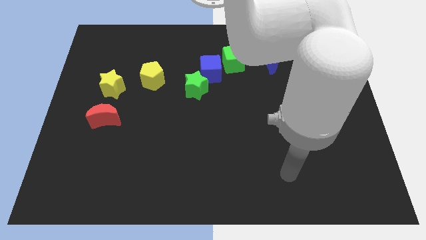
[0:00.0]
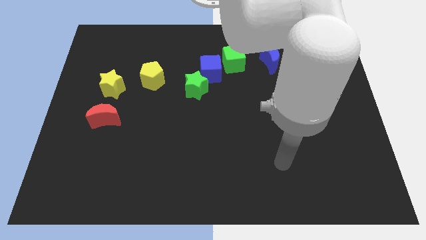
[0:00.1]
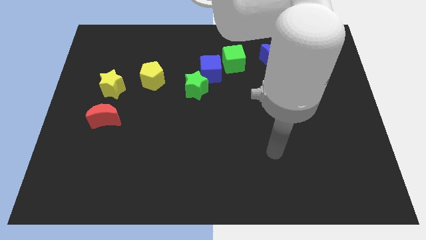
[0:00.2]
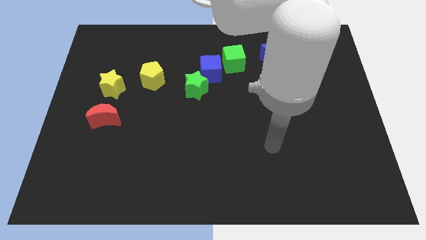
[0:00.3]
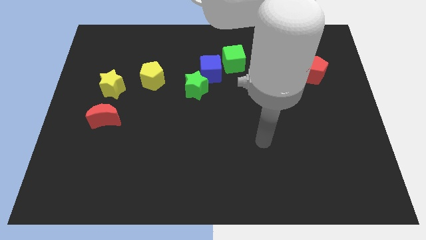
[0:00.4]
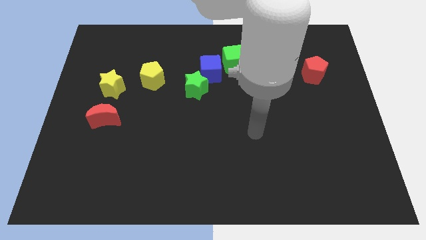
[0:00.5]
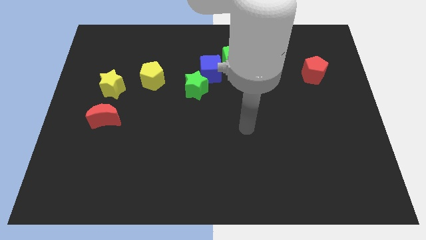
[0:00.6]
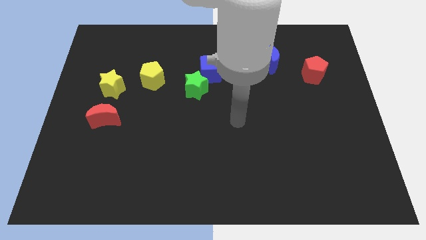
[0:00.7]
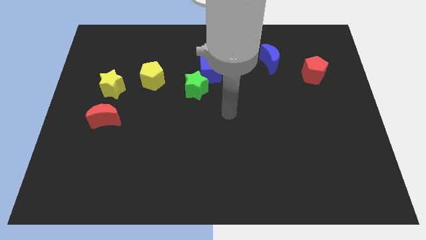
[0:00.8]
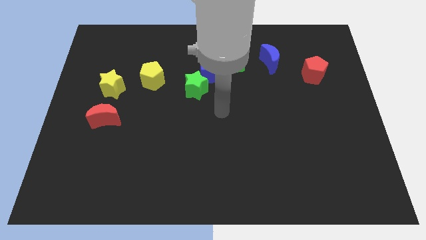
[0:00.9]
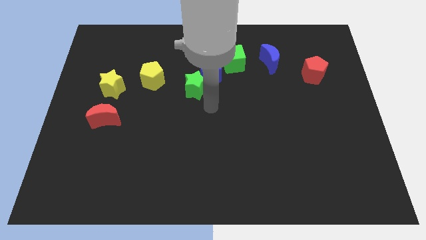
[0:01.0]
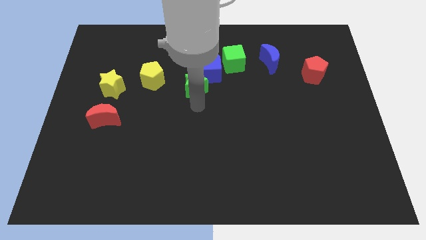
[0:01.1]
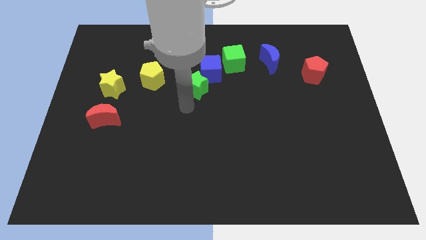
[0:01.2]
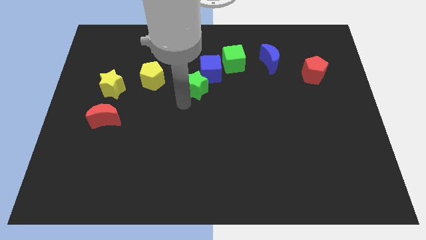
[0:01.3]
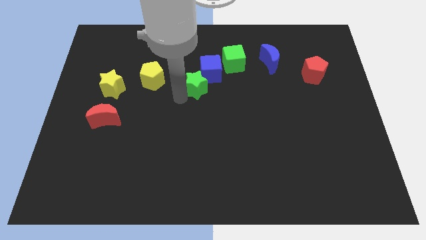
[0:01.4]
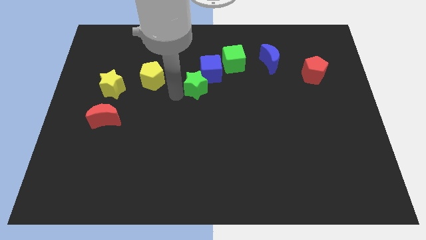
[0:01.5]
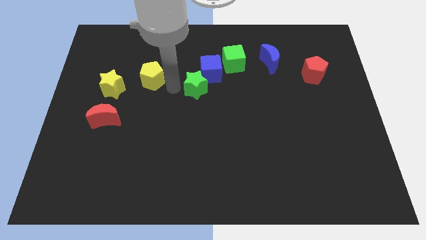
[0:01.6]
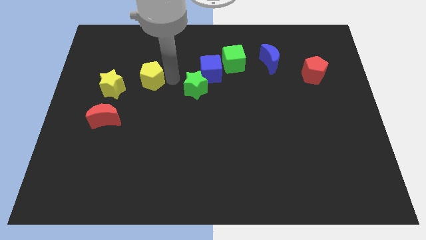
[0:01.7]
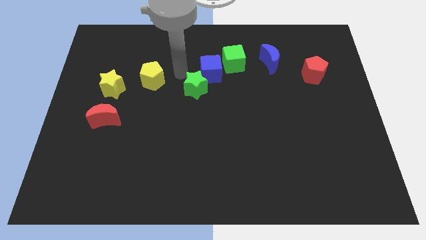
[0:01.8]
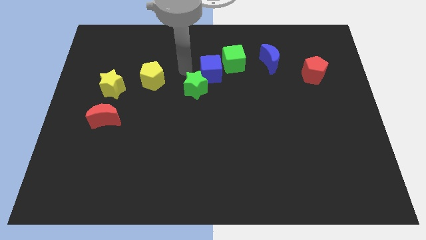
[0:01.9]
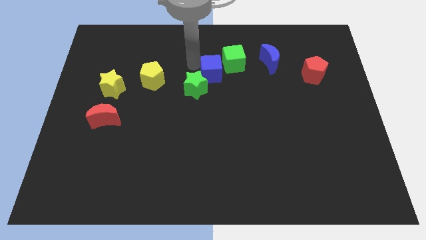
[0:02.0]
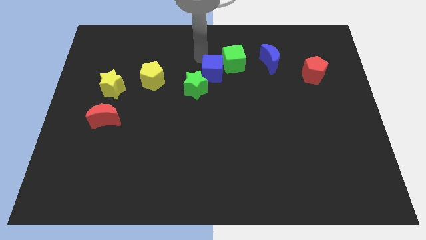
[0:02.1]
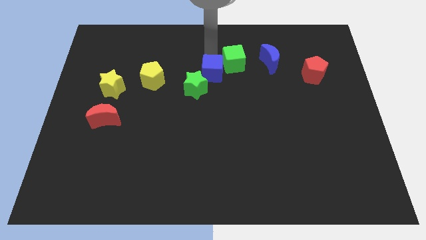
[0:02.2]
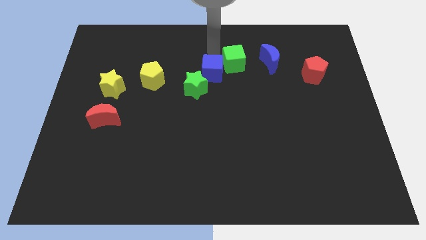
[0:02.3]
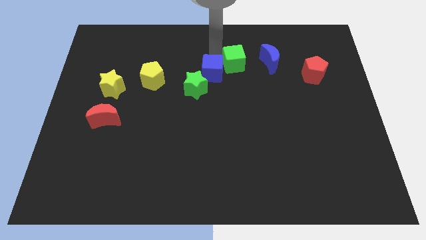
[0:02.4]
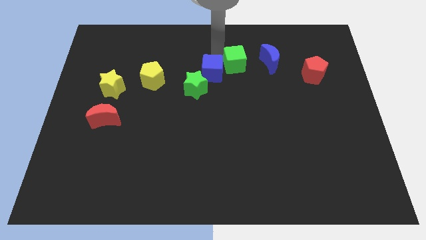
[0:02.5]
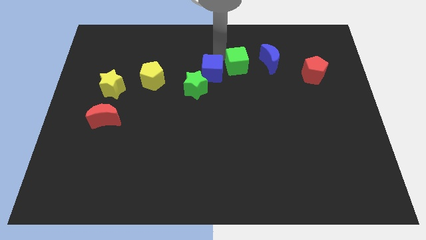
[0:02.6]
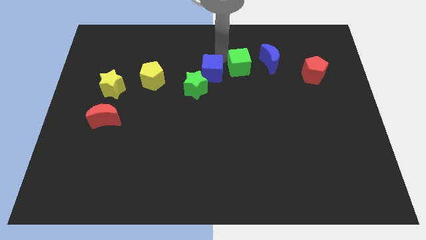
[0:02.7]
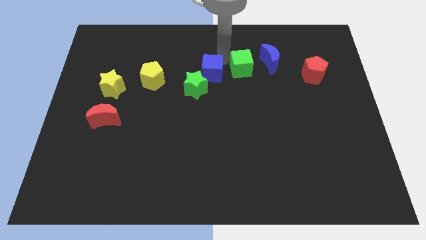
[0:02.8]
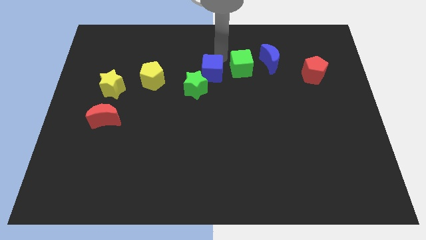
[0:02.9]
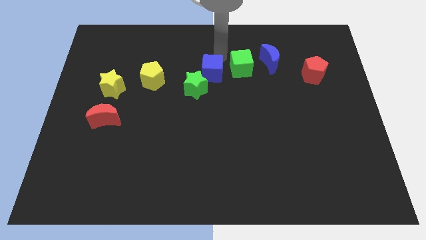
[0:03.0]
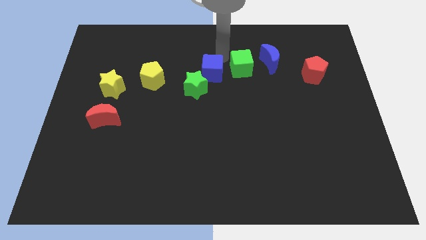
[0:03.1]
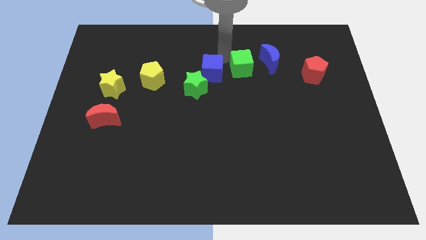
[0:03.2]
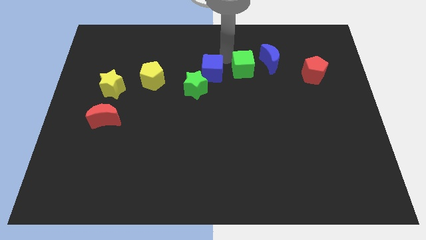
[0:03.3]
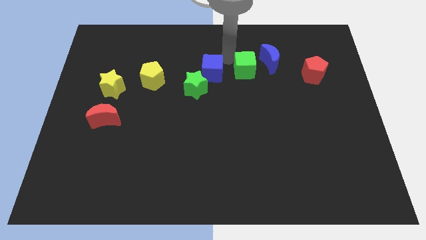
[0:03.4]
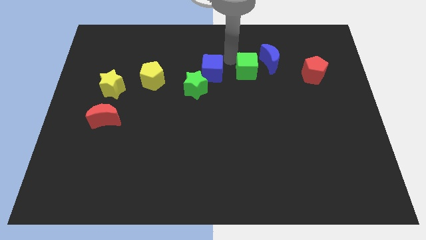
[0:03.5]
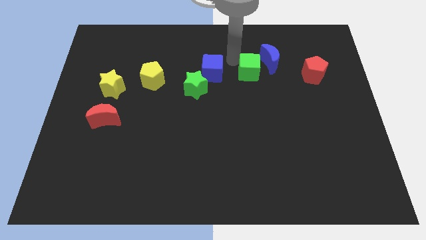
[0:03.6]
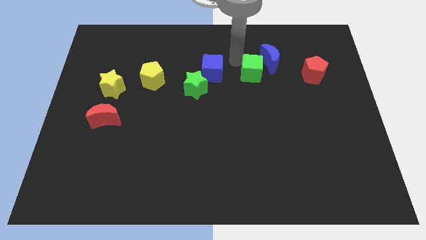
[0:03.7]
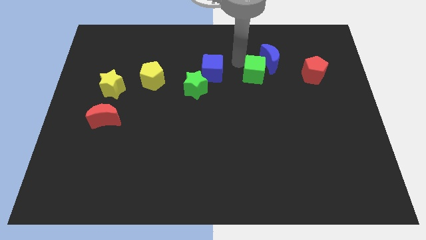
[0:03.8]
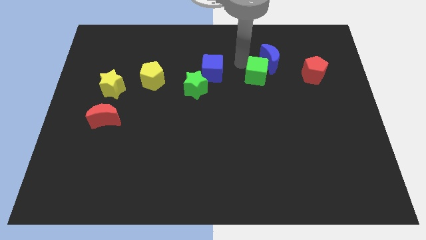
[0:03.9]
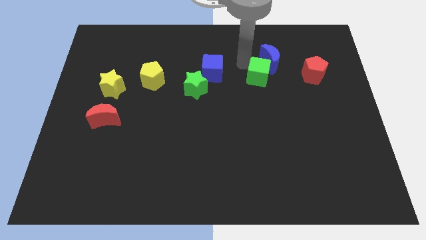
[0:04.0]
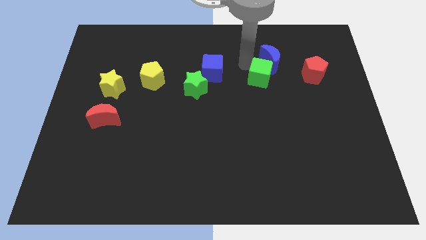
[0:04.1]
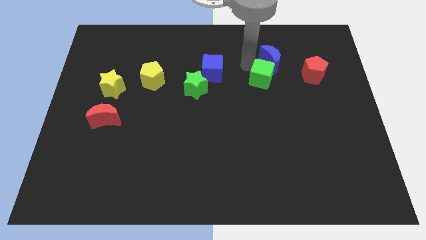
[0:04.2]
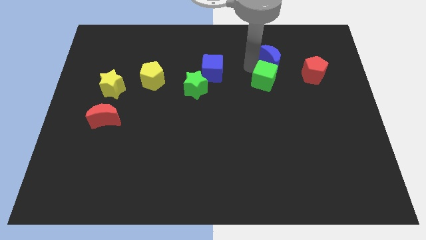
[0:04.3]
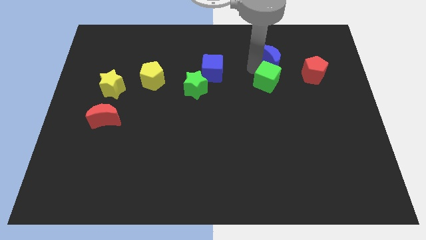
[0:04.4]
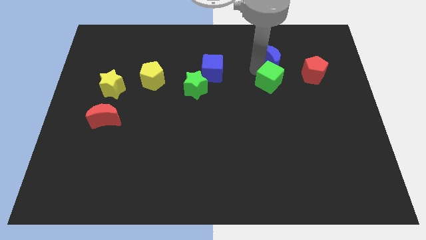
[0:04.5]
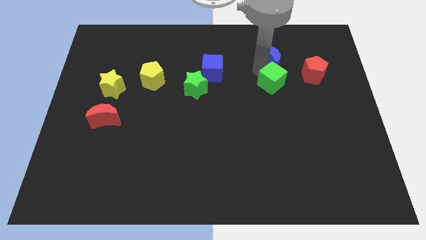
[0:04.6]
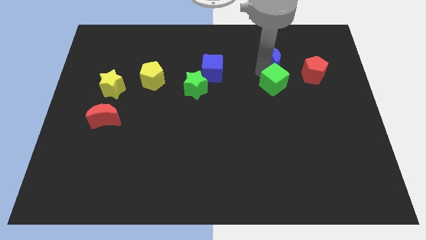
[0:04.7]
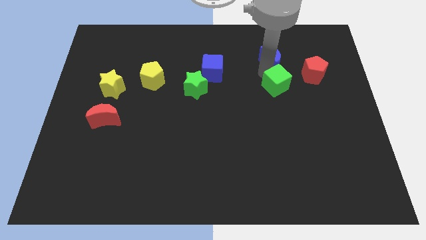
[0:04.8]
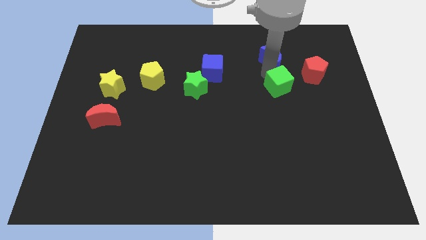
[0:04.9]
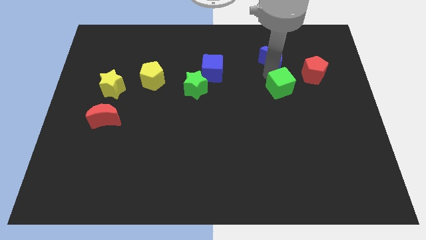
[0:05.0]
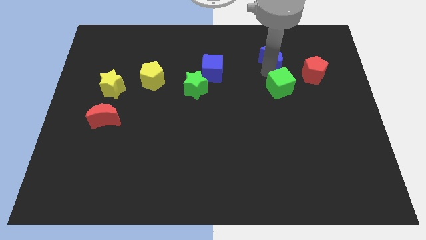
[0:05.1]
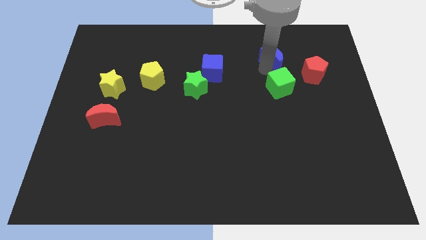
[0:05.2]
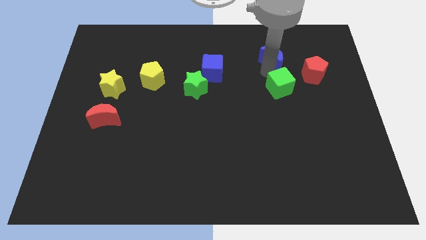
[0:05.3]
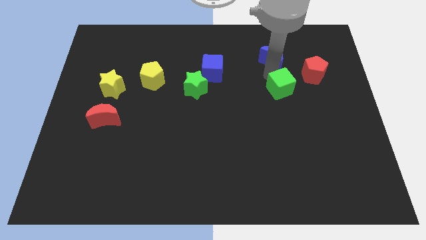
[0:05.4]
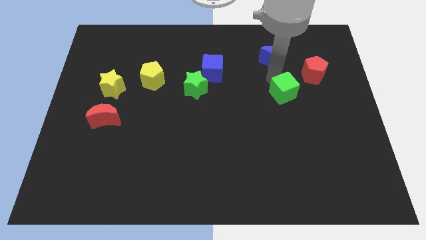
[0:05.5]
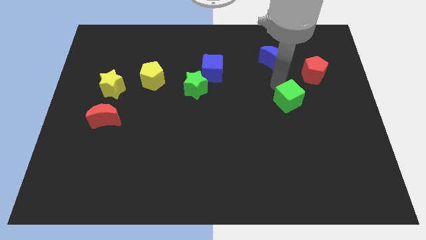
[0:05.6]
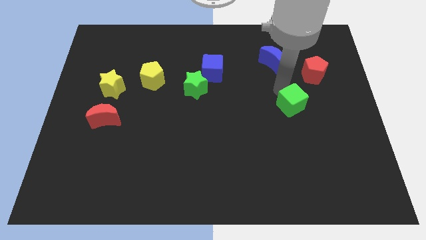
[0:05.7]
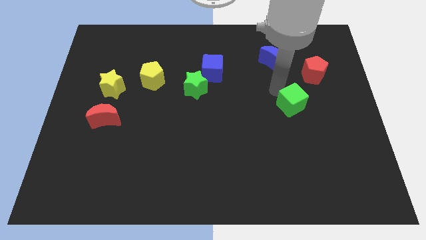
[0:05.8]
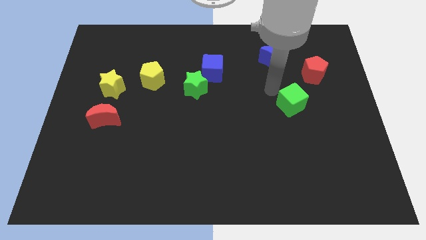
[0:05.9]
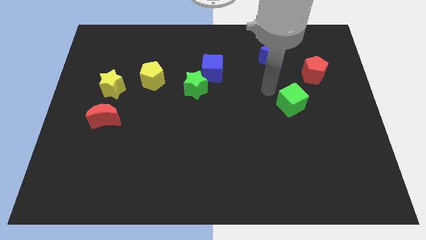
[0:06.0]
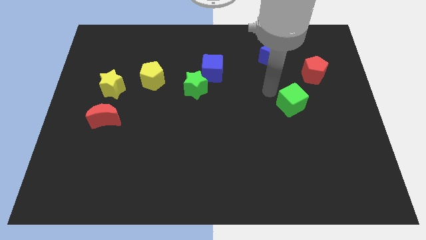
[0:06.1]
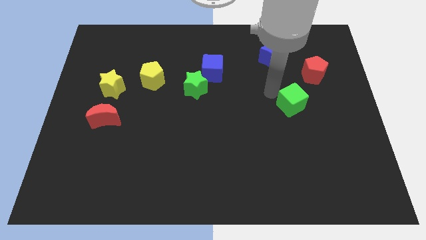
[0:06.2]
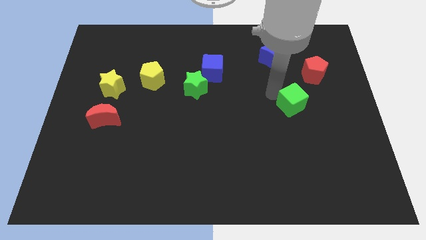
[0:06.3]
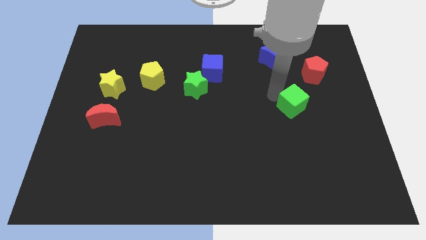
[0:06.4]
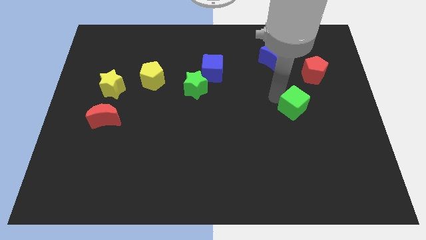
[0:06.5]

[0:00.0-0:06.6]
move the green cube down and then to the right

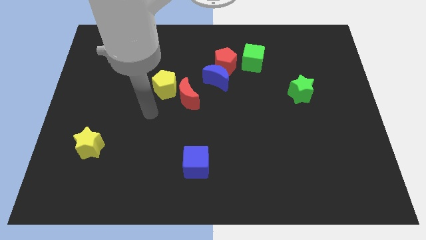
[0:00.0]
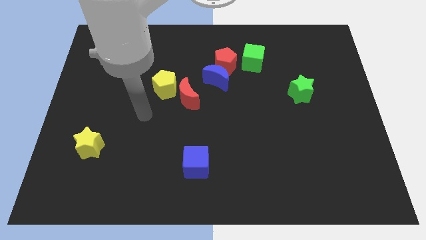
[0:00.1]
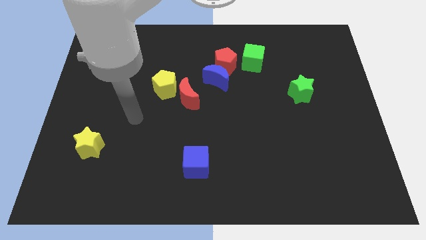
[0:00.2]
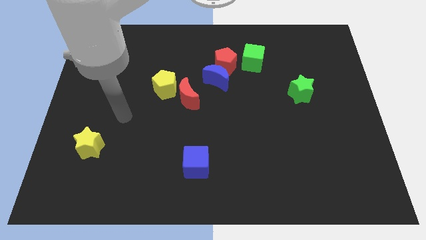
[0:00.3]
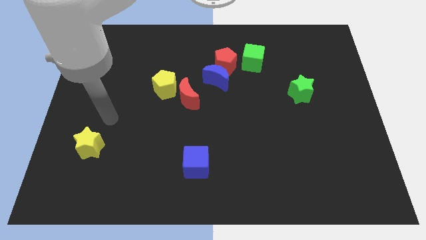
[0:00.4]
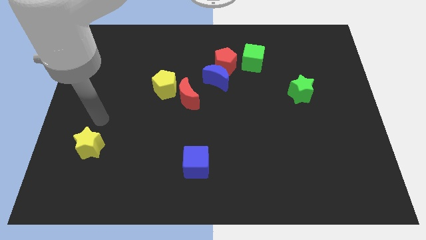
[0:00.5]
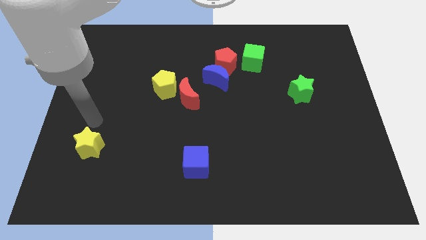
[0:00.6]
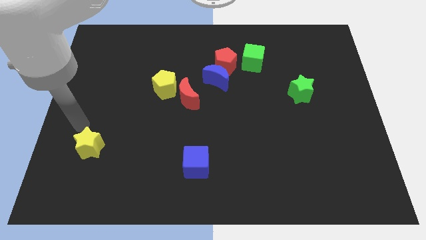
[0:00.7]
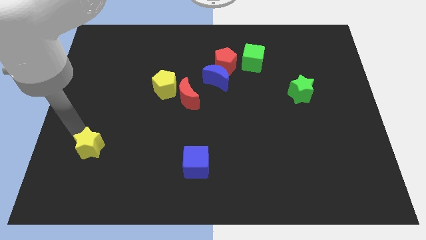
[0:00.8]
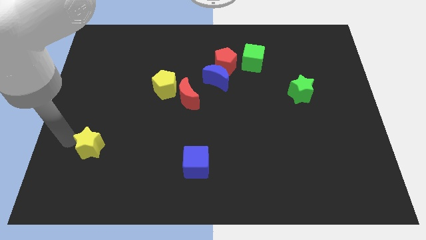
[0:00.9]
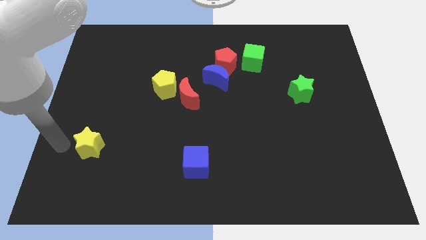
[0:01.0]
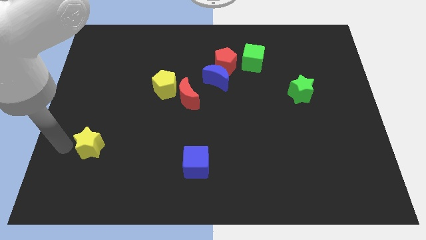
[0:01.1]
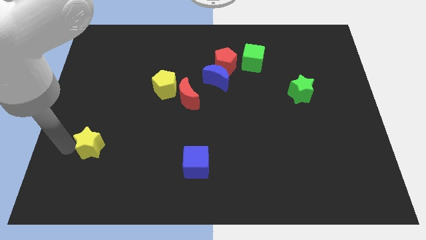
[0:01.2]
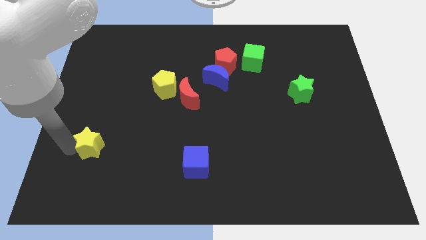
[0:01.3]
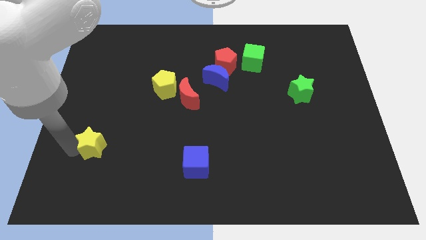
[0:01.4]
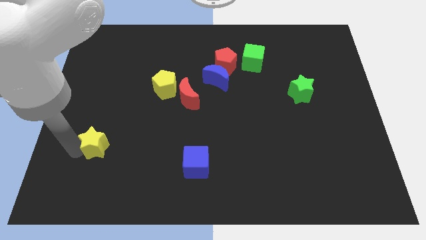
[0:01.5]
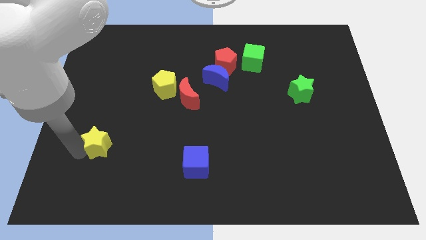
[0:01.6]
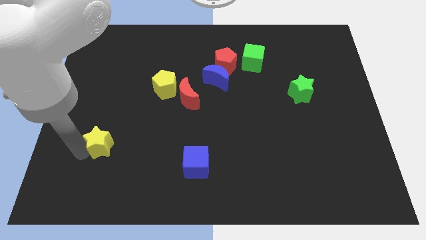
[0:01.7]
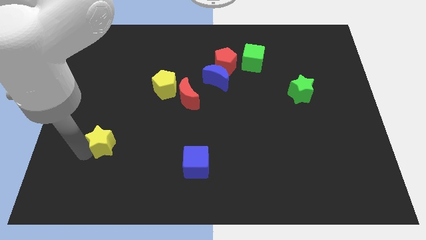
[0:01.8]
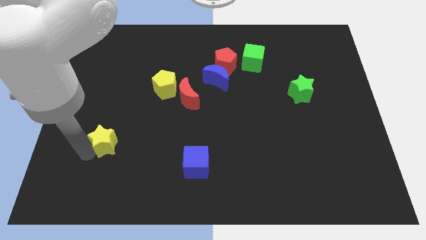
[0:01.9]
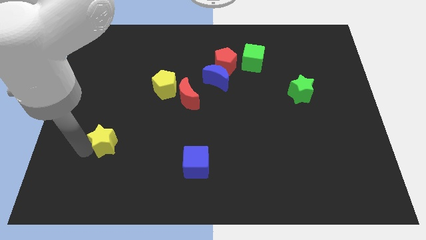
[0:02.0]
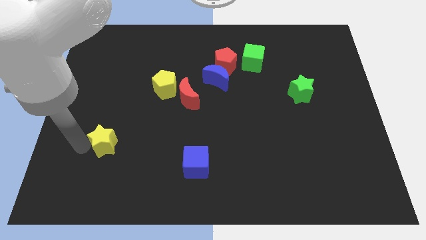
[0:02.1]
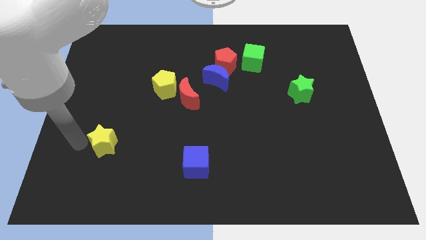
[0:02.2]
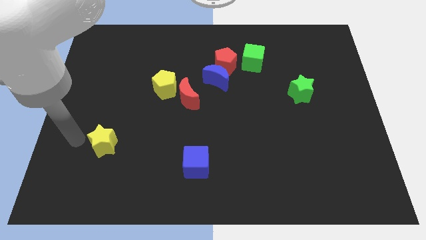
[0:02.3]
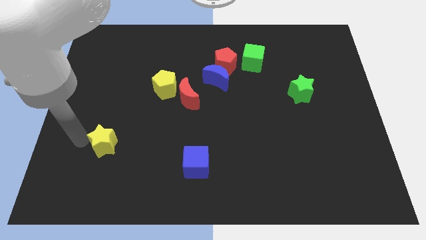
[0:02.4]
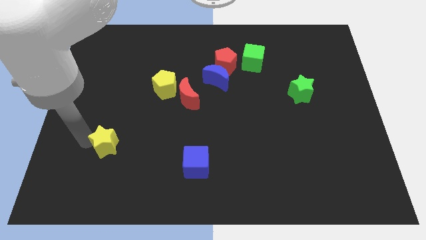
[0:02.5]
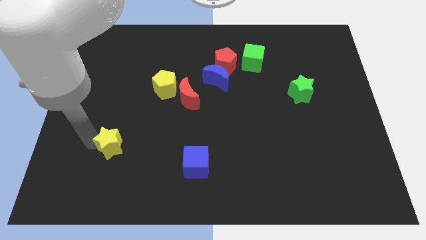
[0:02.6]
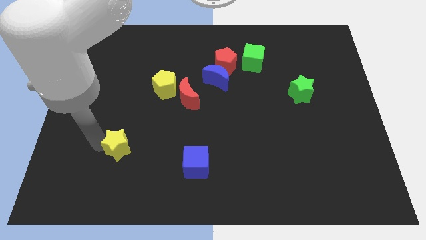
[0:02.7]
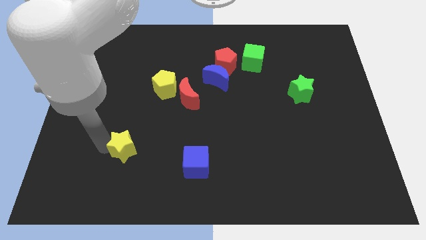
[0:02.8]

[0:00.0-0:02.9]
move the yellow star to the right a bit
